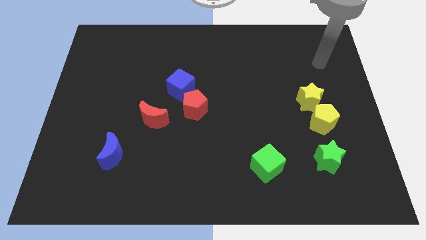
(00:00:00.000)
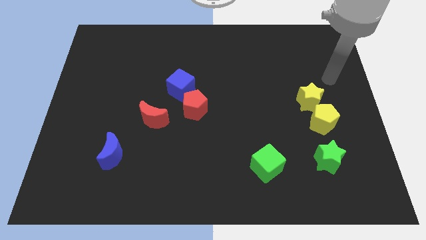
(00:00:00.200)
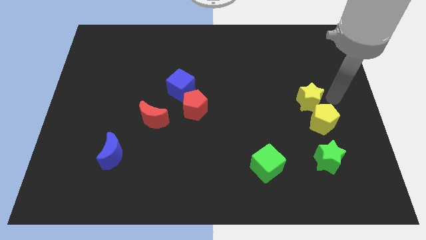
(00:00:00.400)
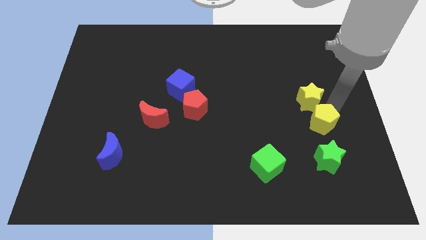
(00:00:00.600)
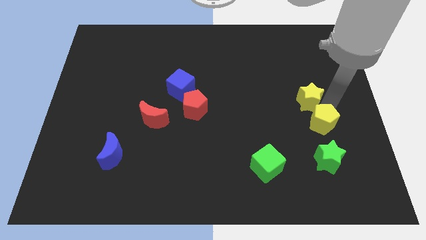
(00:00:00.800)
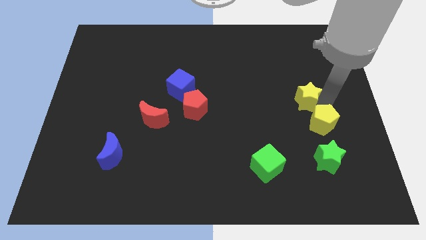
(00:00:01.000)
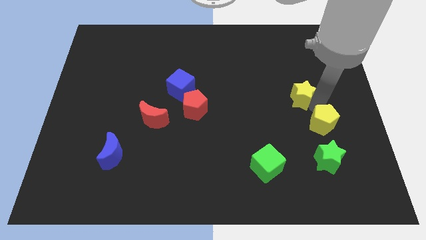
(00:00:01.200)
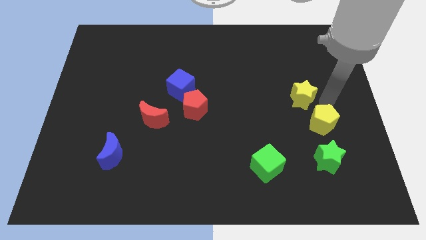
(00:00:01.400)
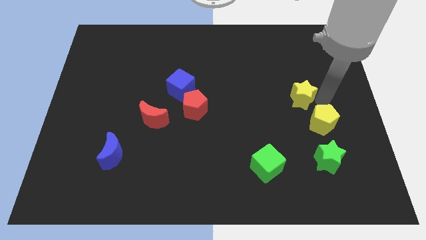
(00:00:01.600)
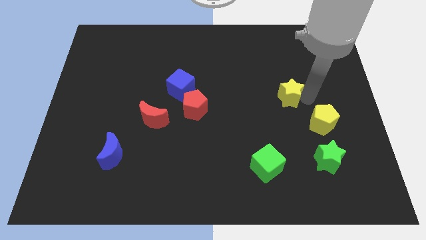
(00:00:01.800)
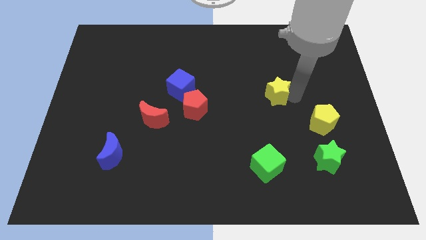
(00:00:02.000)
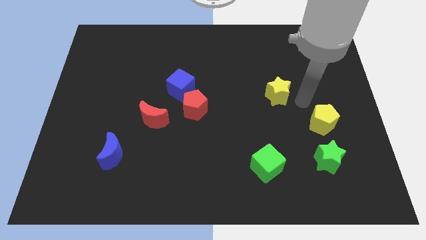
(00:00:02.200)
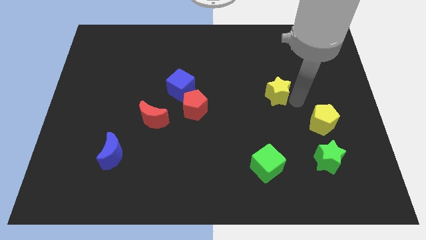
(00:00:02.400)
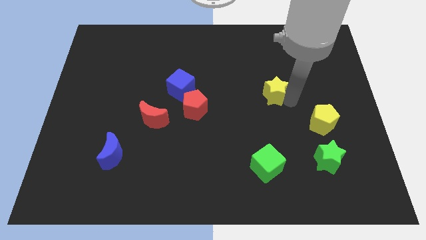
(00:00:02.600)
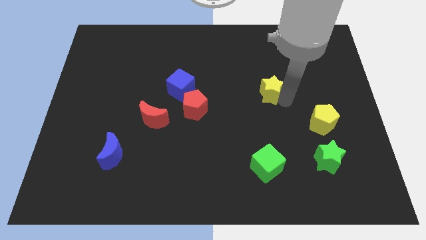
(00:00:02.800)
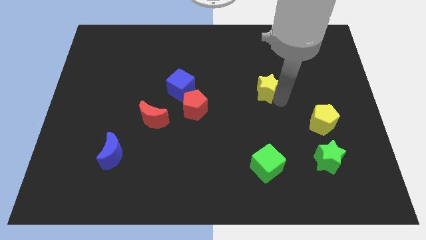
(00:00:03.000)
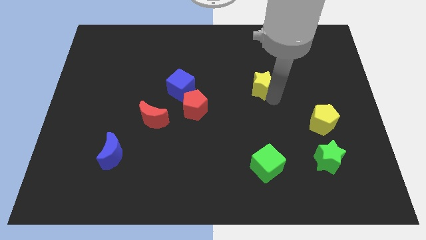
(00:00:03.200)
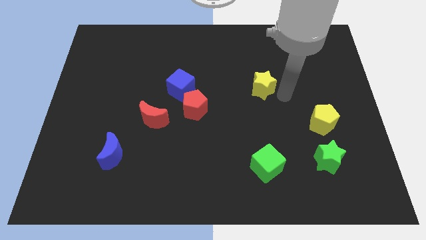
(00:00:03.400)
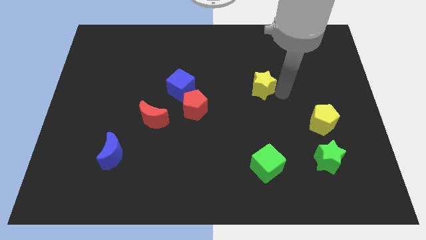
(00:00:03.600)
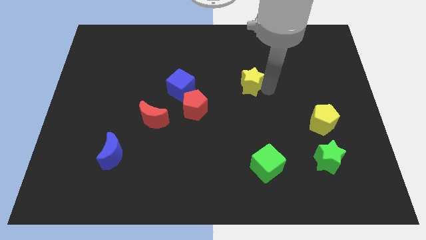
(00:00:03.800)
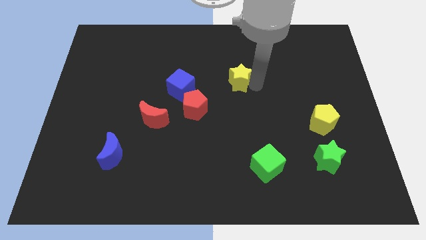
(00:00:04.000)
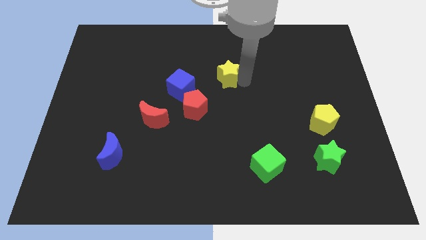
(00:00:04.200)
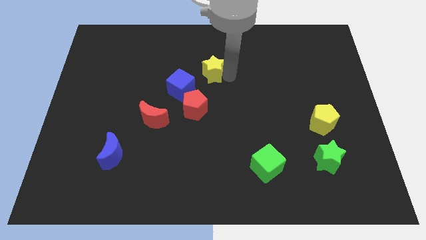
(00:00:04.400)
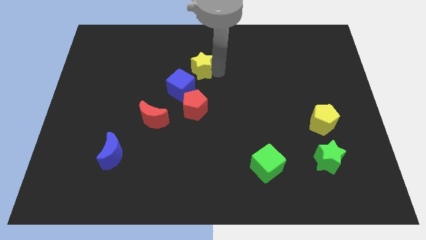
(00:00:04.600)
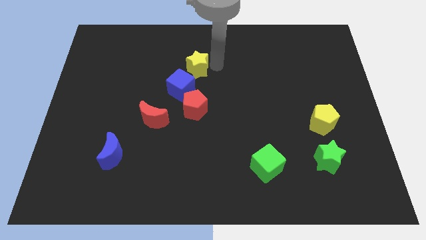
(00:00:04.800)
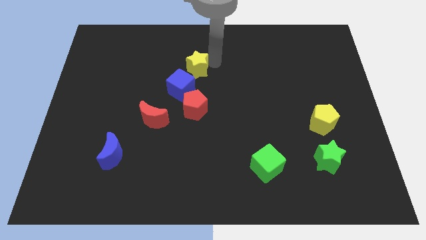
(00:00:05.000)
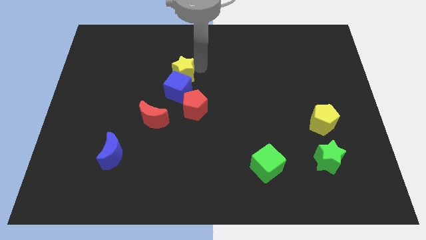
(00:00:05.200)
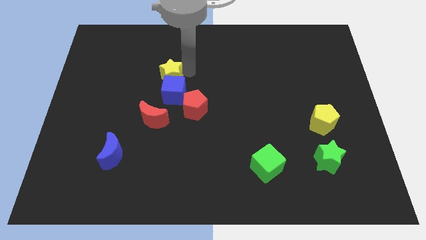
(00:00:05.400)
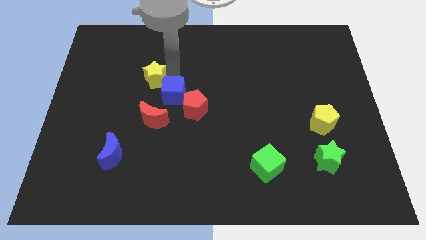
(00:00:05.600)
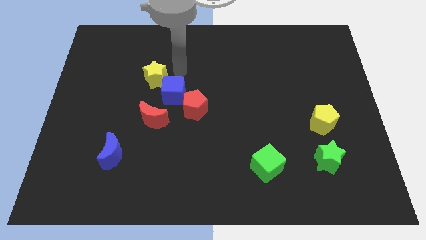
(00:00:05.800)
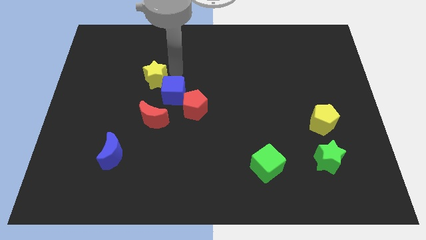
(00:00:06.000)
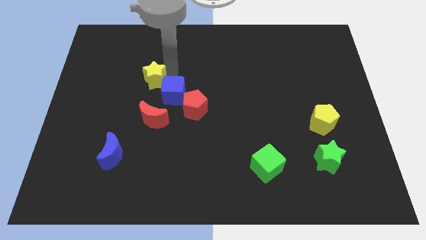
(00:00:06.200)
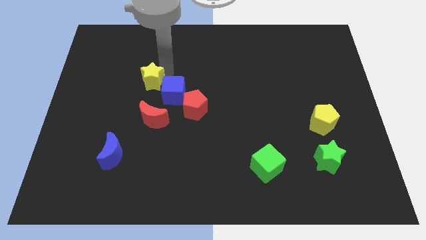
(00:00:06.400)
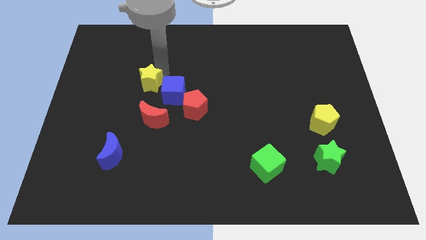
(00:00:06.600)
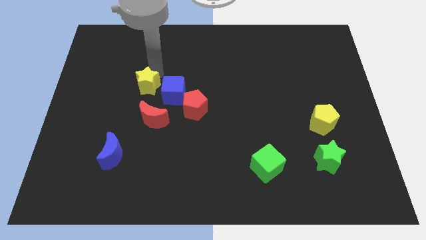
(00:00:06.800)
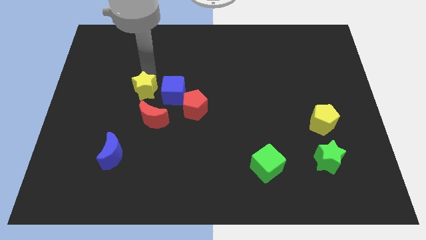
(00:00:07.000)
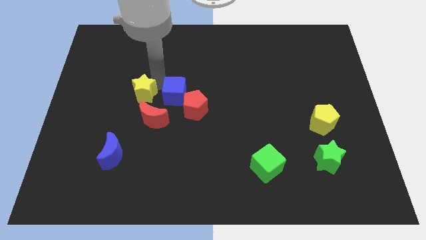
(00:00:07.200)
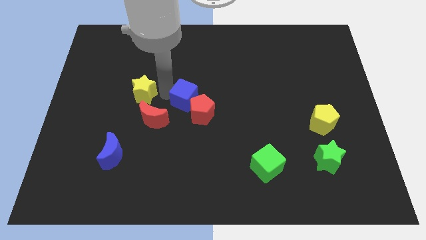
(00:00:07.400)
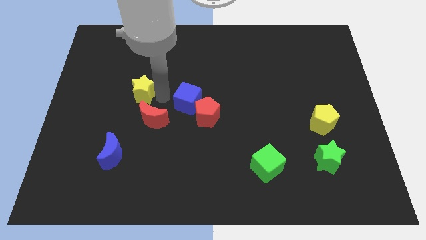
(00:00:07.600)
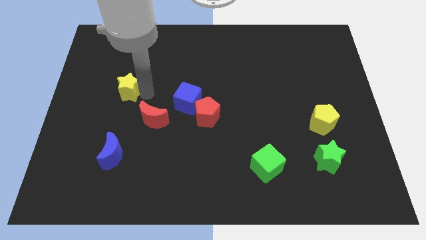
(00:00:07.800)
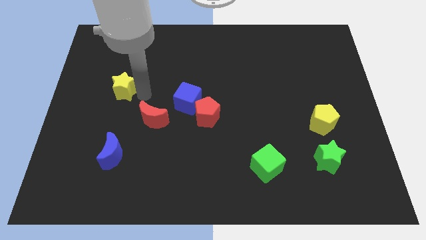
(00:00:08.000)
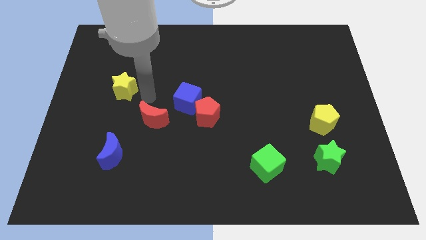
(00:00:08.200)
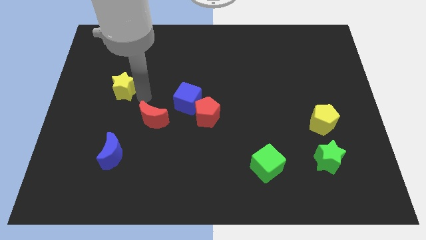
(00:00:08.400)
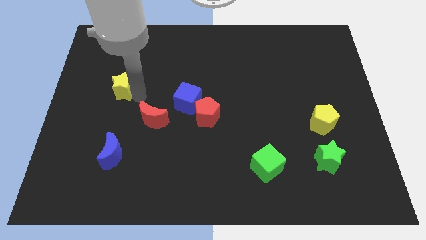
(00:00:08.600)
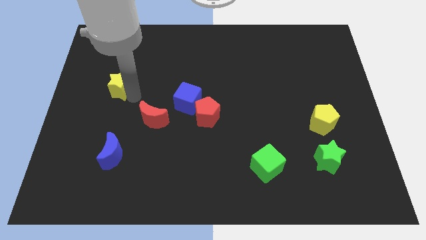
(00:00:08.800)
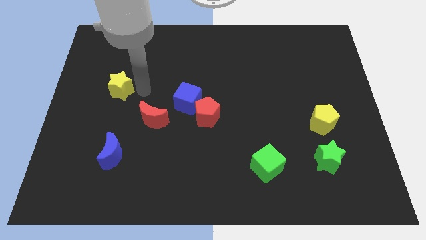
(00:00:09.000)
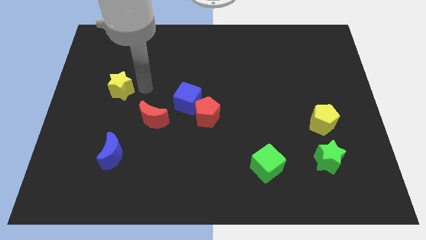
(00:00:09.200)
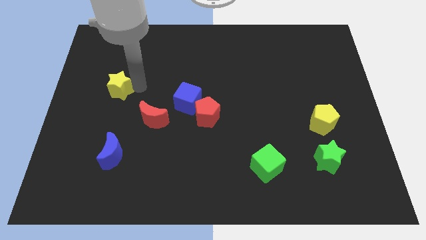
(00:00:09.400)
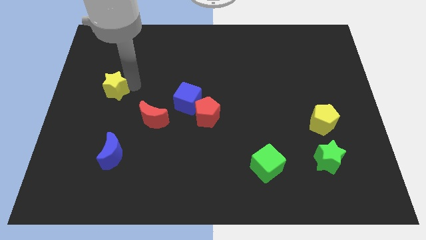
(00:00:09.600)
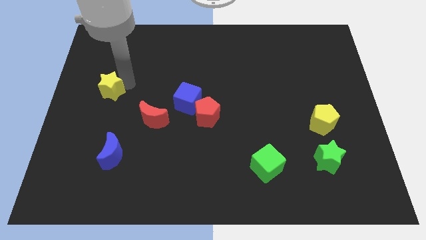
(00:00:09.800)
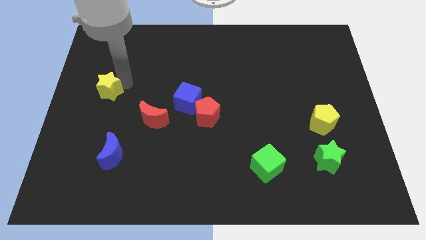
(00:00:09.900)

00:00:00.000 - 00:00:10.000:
put the yellow star to the left side

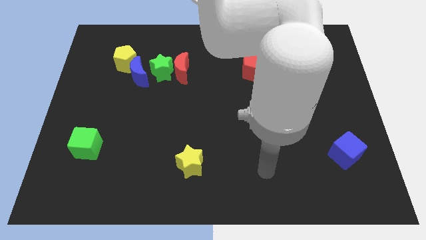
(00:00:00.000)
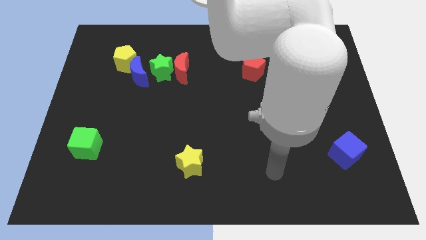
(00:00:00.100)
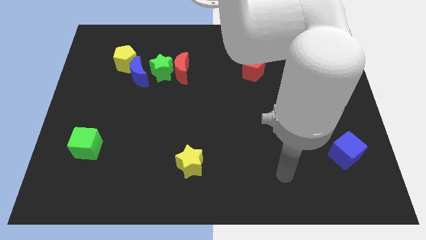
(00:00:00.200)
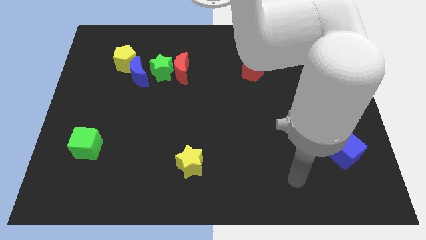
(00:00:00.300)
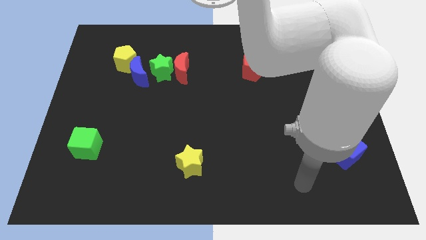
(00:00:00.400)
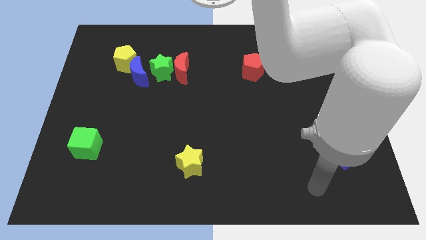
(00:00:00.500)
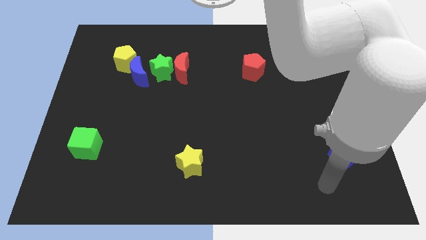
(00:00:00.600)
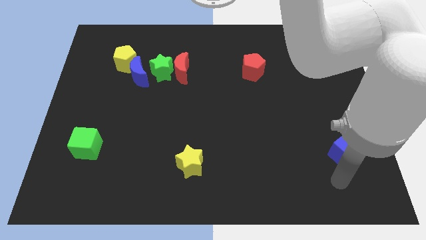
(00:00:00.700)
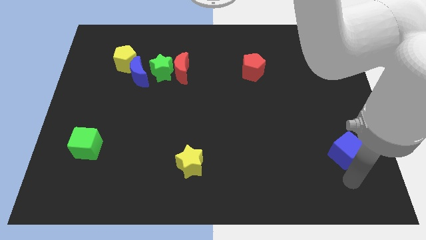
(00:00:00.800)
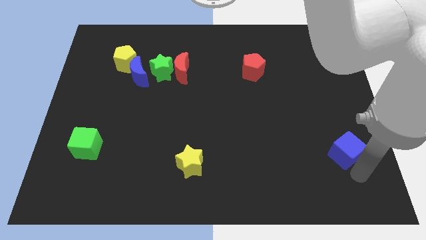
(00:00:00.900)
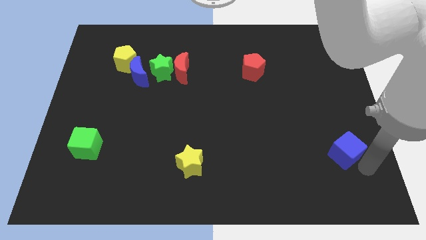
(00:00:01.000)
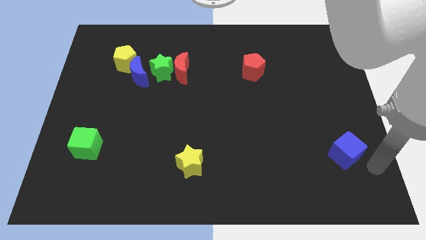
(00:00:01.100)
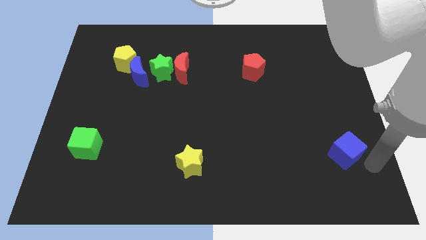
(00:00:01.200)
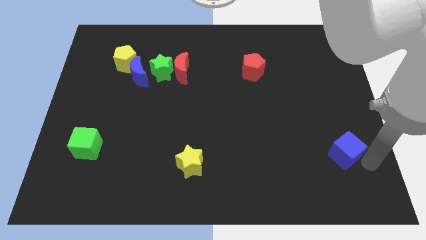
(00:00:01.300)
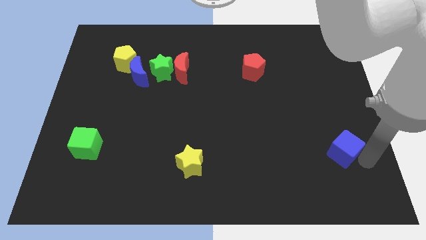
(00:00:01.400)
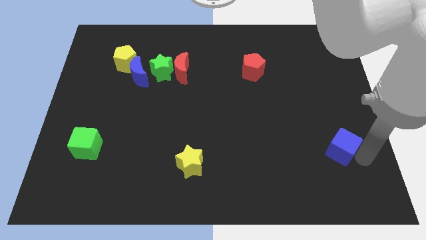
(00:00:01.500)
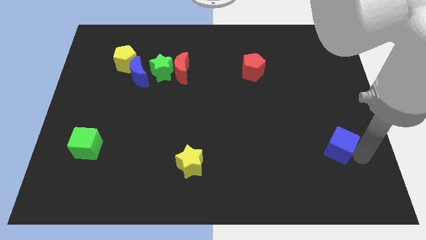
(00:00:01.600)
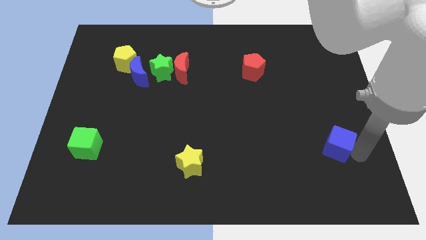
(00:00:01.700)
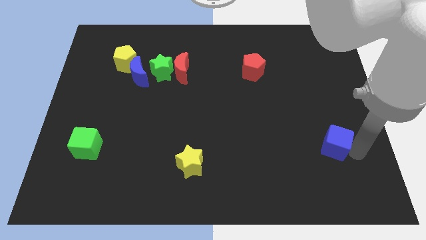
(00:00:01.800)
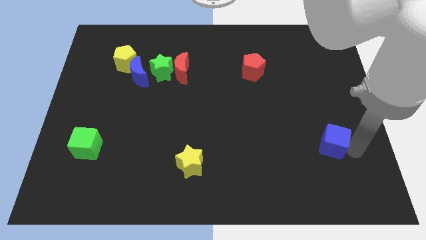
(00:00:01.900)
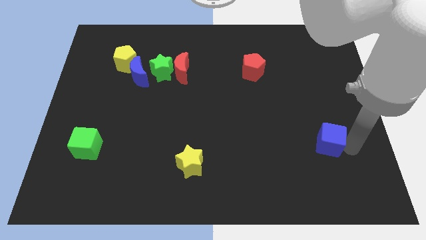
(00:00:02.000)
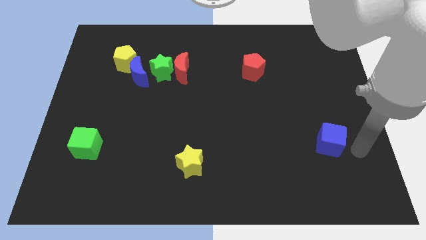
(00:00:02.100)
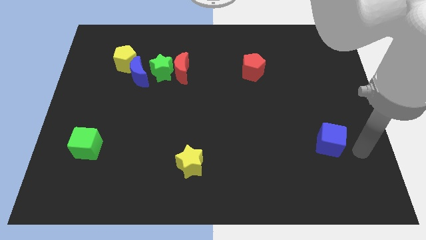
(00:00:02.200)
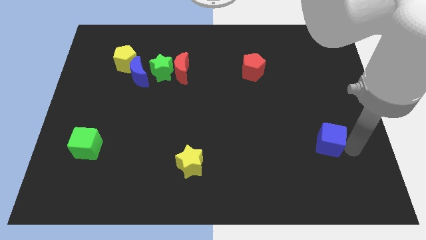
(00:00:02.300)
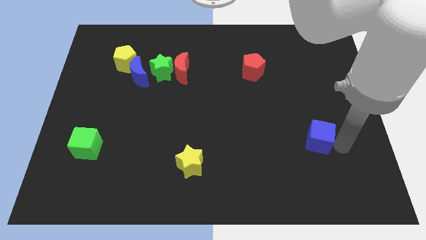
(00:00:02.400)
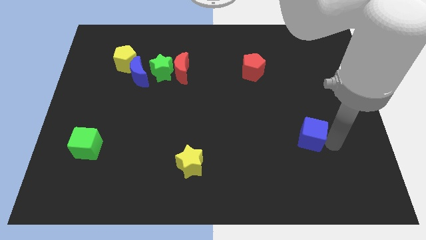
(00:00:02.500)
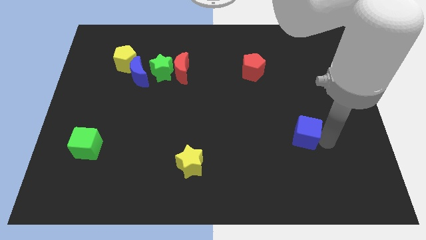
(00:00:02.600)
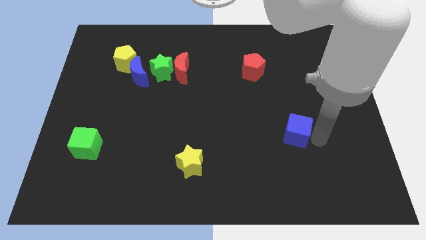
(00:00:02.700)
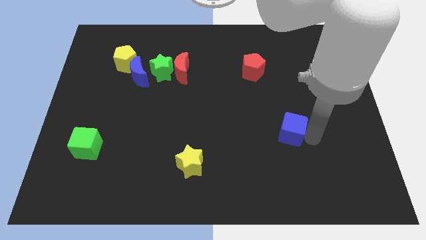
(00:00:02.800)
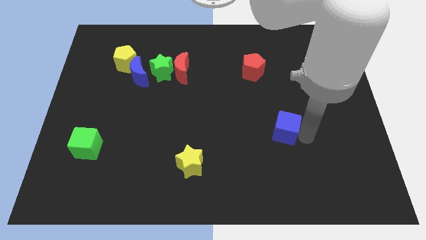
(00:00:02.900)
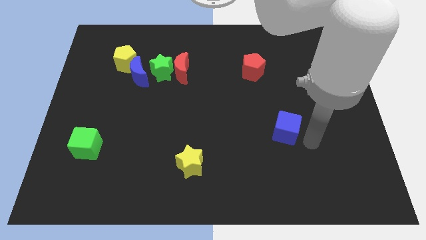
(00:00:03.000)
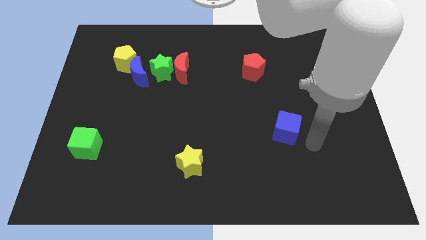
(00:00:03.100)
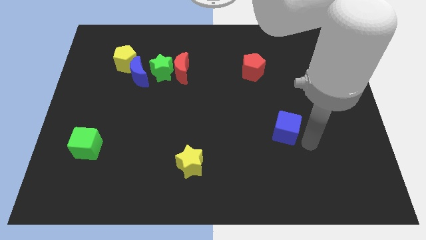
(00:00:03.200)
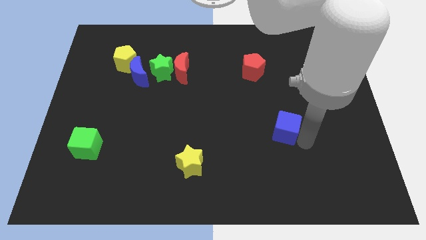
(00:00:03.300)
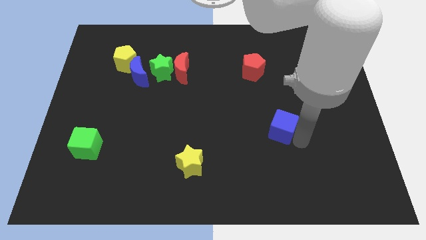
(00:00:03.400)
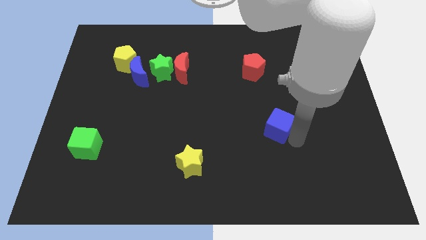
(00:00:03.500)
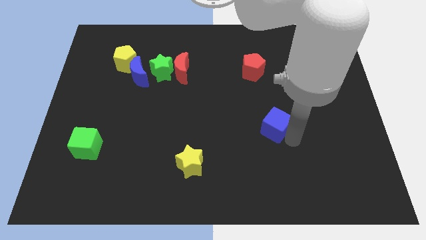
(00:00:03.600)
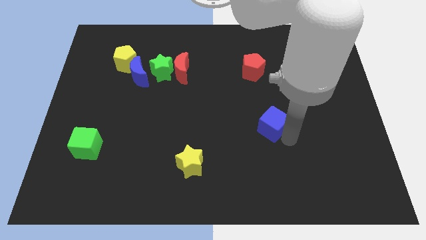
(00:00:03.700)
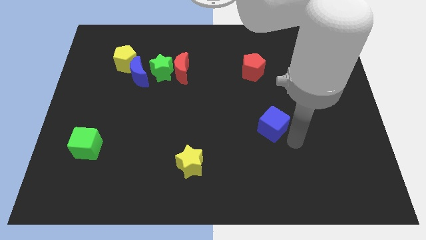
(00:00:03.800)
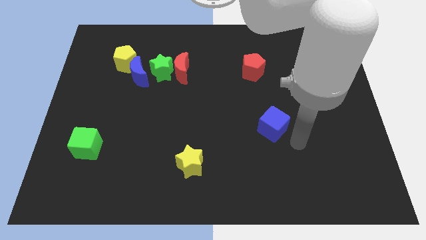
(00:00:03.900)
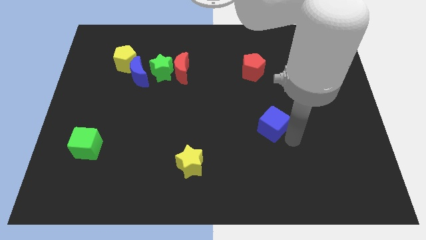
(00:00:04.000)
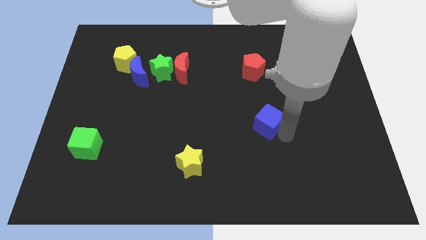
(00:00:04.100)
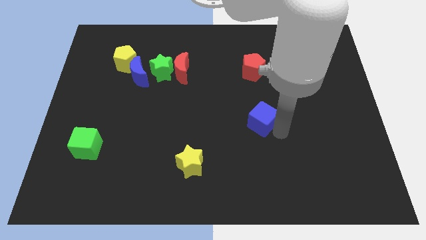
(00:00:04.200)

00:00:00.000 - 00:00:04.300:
push the blue cube to the middle
